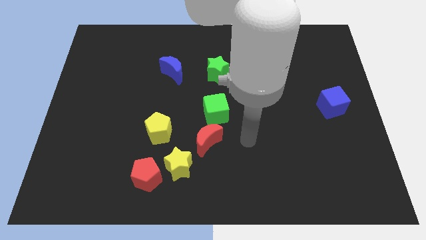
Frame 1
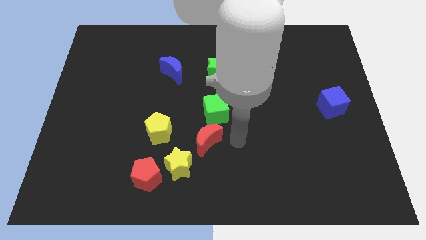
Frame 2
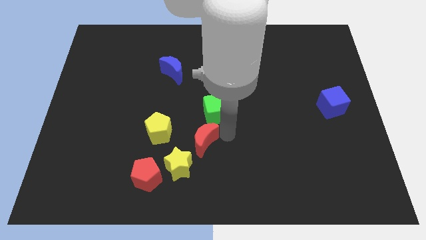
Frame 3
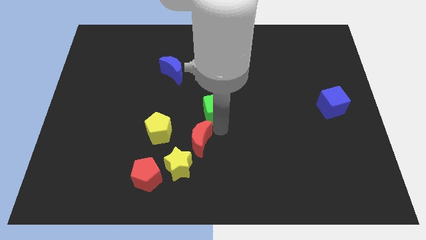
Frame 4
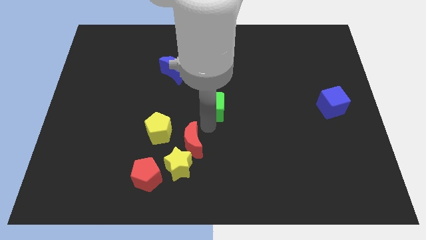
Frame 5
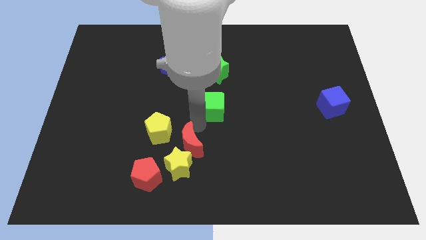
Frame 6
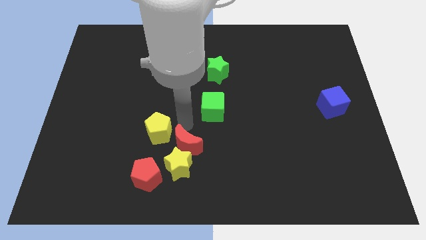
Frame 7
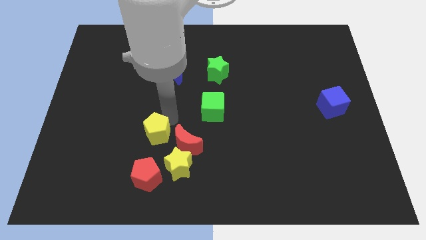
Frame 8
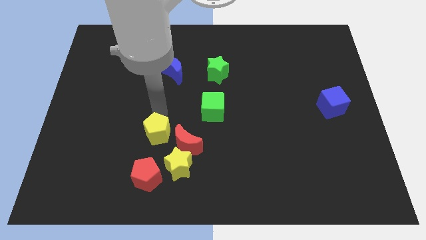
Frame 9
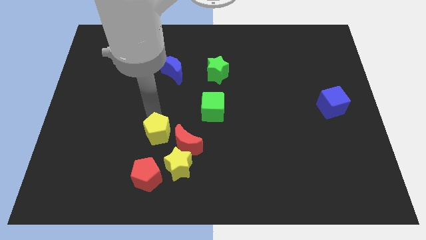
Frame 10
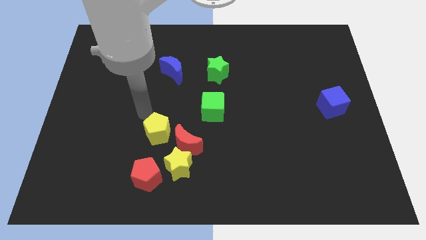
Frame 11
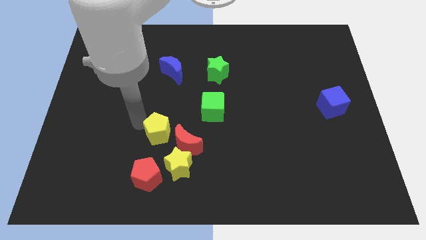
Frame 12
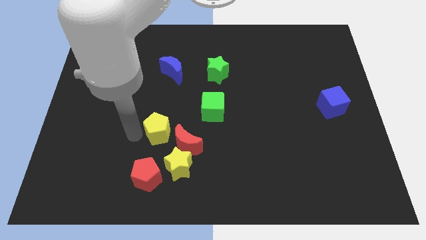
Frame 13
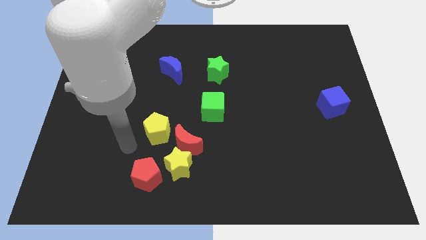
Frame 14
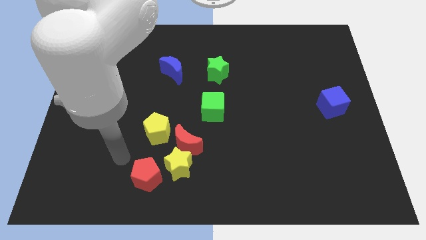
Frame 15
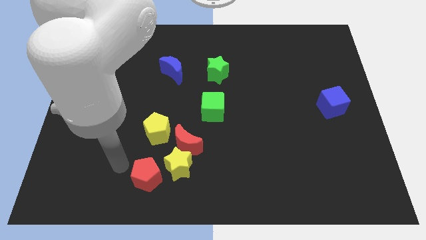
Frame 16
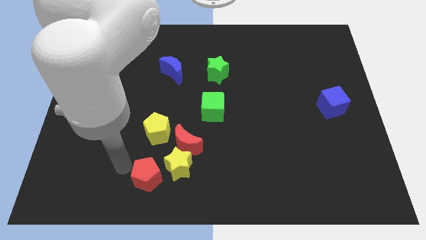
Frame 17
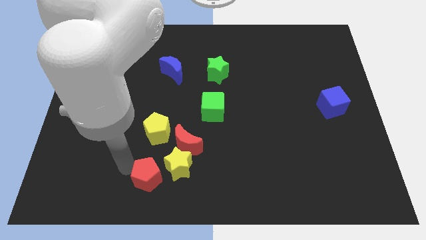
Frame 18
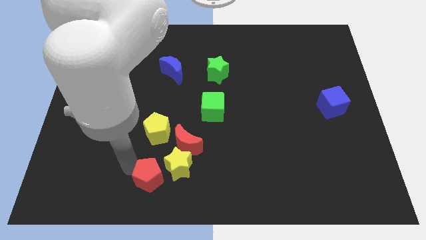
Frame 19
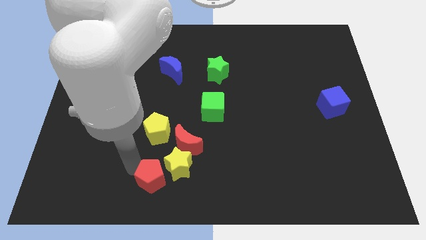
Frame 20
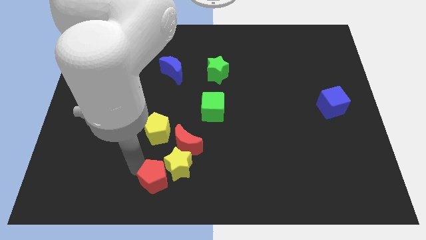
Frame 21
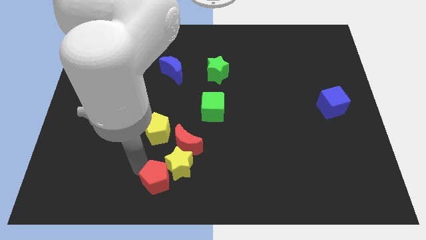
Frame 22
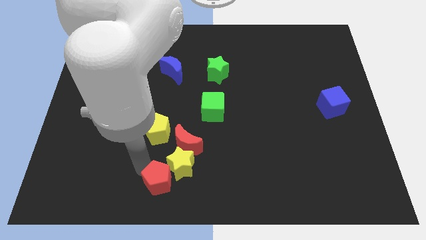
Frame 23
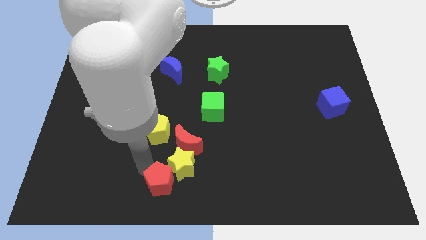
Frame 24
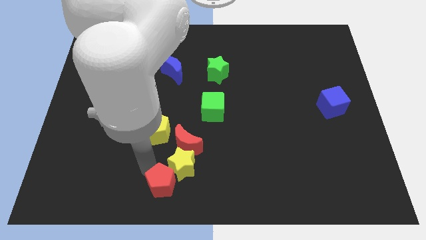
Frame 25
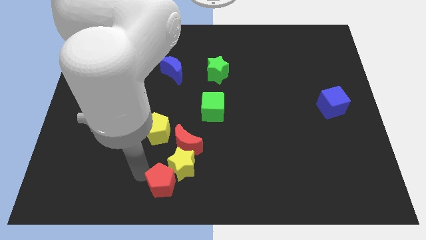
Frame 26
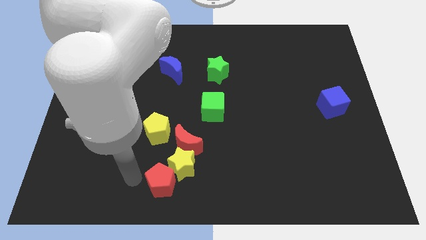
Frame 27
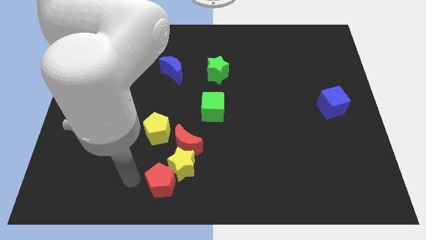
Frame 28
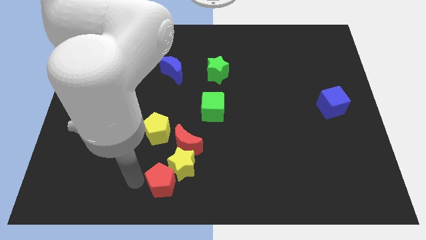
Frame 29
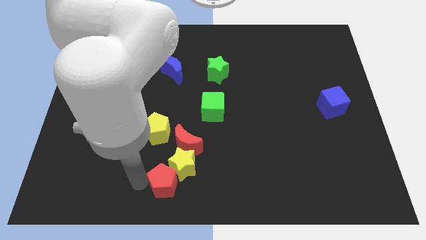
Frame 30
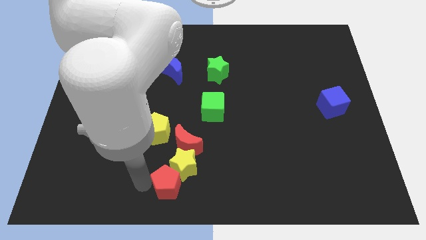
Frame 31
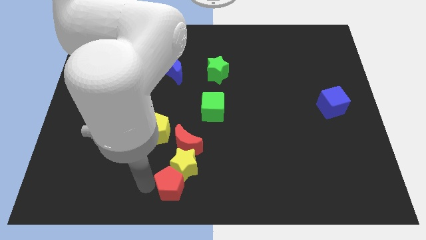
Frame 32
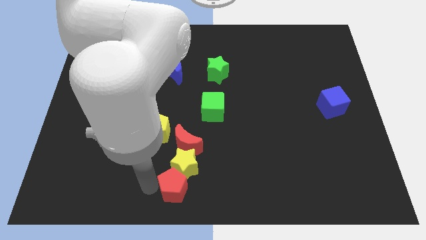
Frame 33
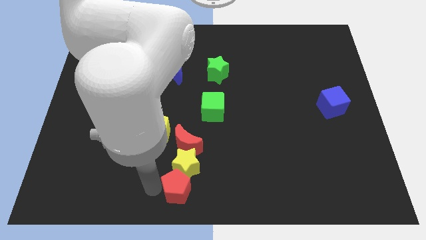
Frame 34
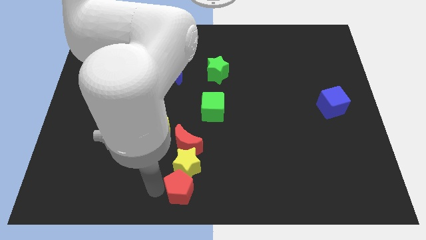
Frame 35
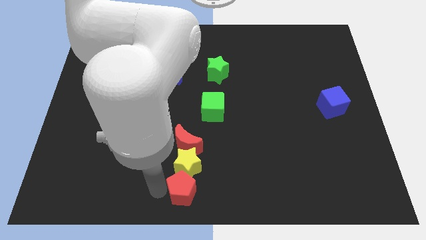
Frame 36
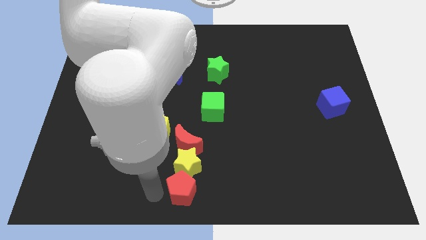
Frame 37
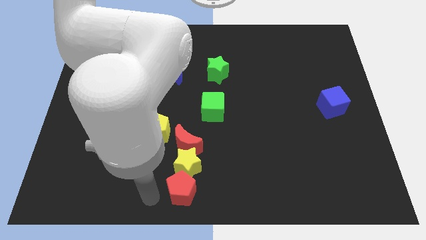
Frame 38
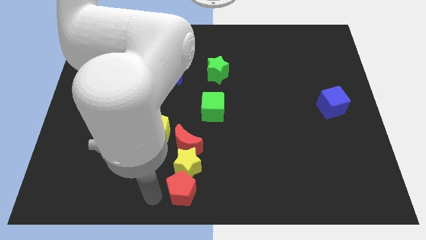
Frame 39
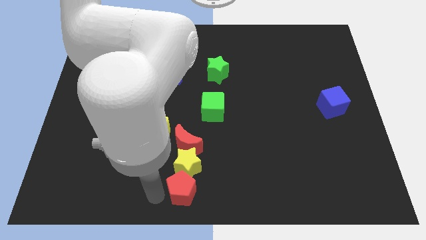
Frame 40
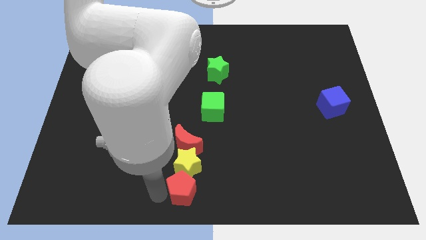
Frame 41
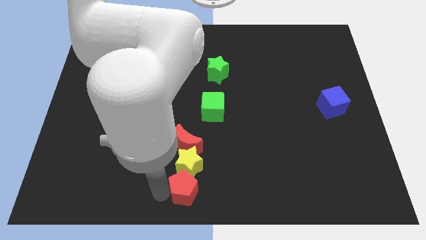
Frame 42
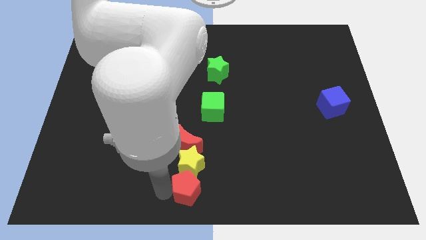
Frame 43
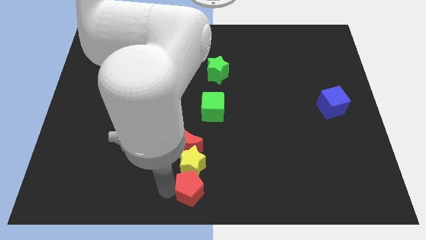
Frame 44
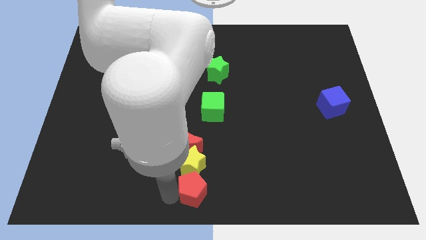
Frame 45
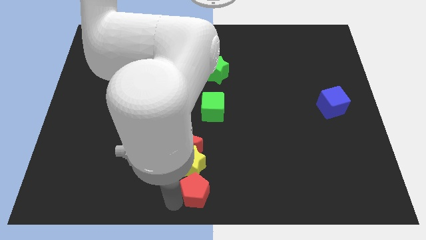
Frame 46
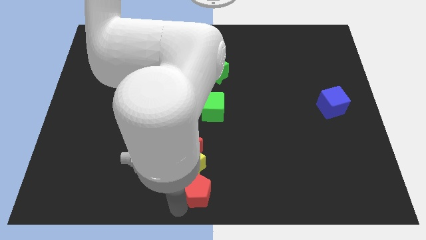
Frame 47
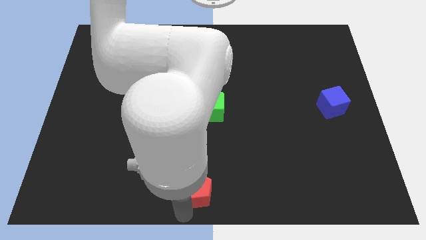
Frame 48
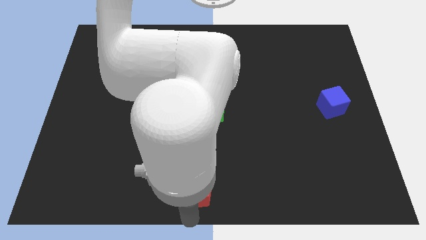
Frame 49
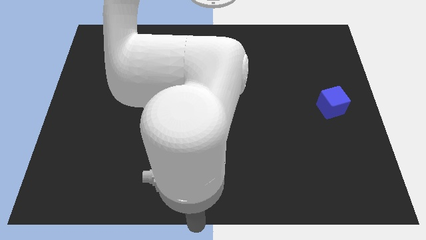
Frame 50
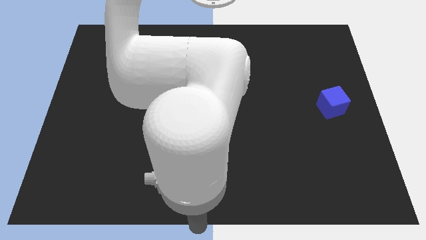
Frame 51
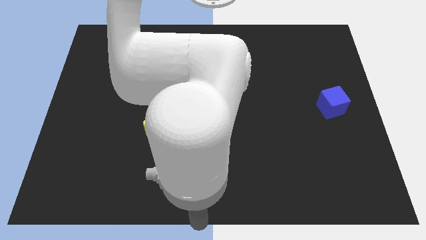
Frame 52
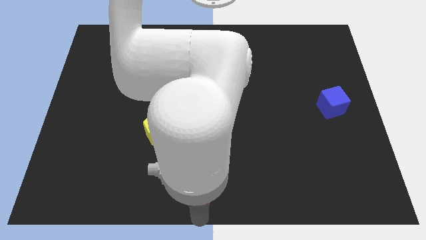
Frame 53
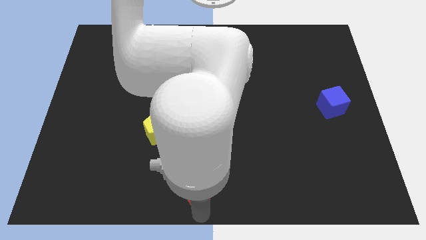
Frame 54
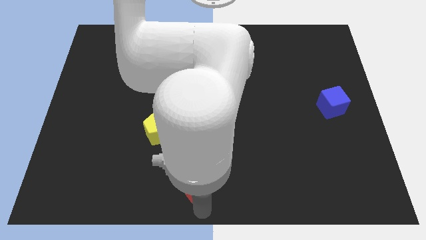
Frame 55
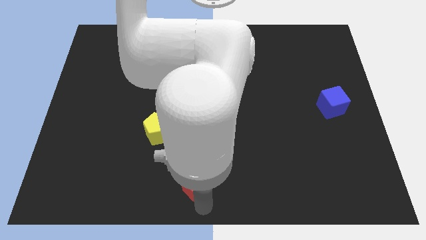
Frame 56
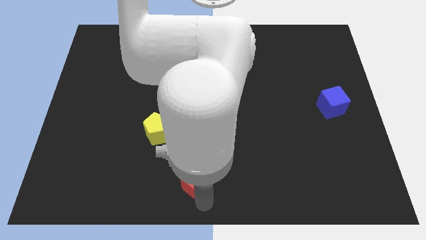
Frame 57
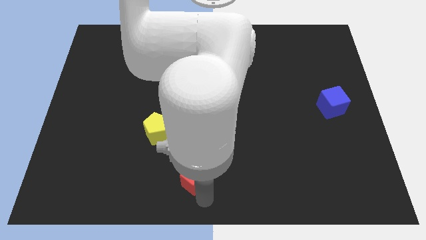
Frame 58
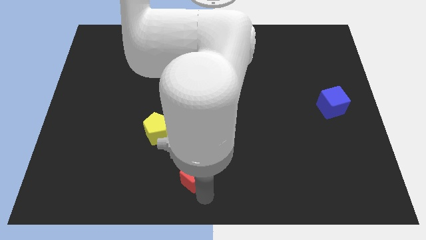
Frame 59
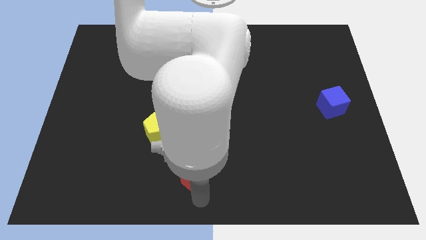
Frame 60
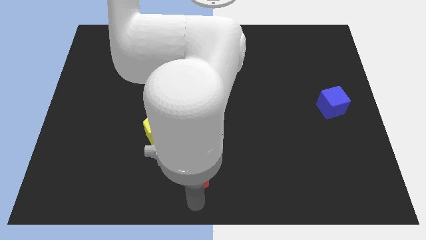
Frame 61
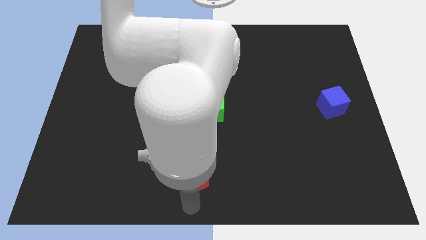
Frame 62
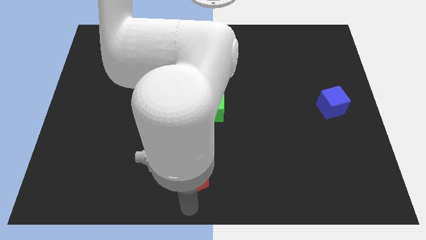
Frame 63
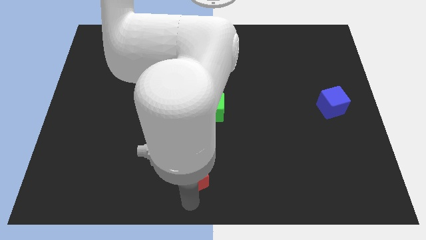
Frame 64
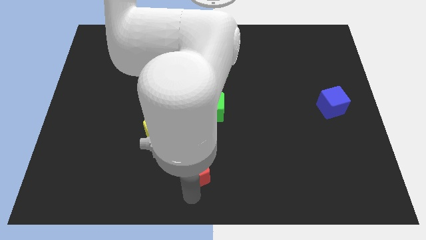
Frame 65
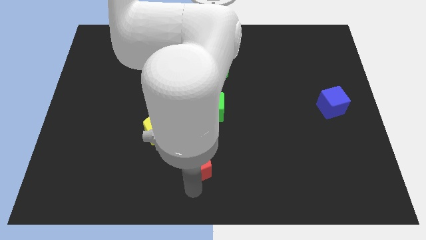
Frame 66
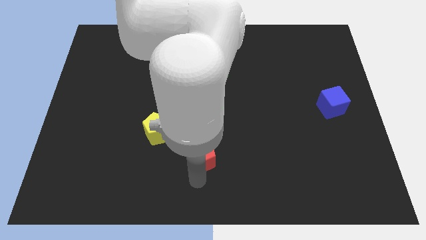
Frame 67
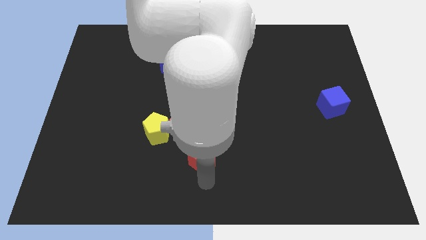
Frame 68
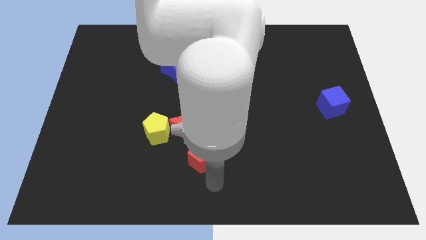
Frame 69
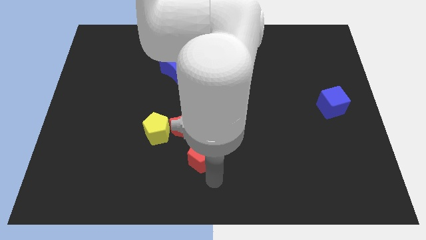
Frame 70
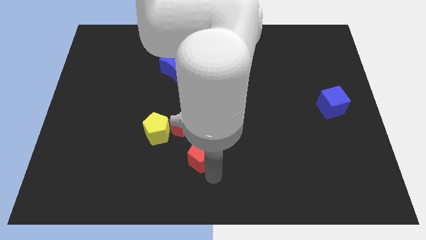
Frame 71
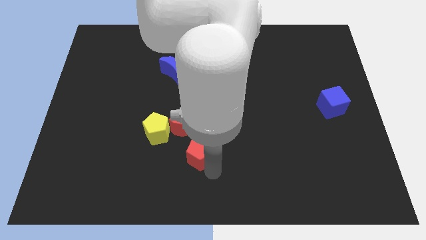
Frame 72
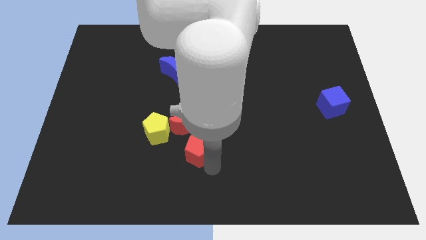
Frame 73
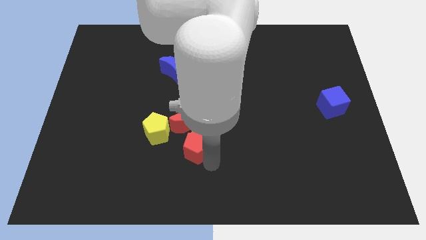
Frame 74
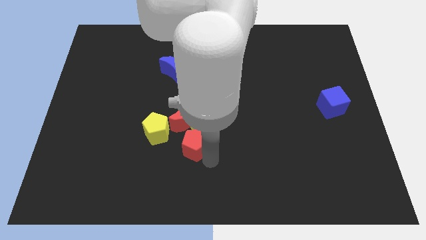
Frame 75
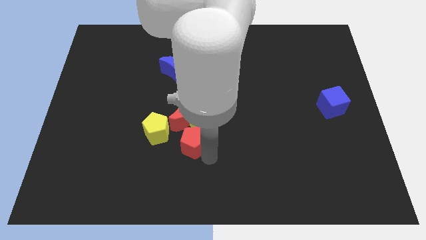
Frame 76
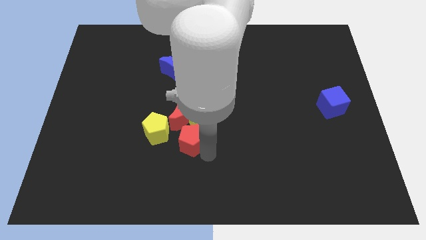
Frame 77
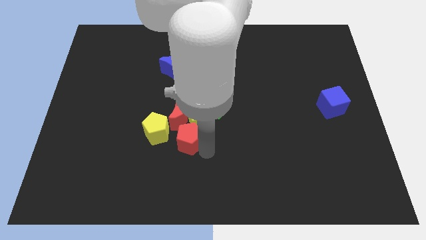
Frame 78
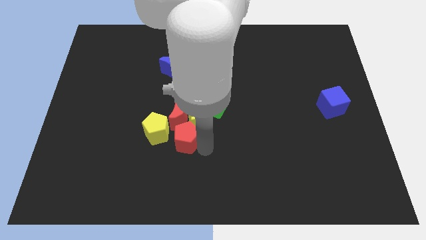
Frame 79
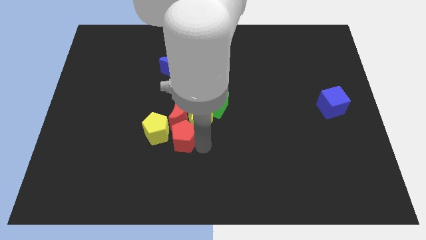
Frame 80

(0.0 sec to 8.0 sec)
put the red pentagon close to the red moon
